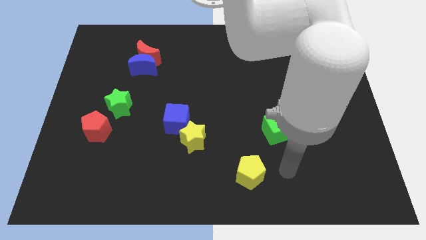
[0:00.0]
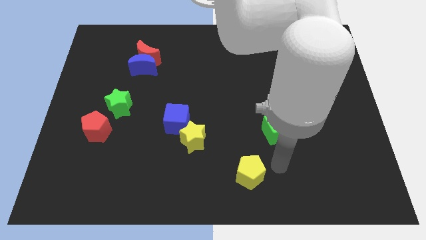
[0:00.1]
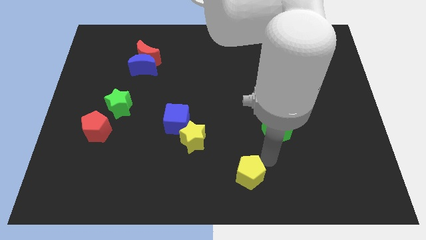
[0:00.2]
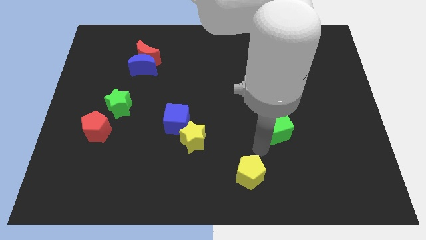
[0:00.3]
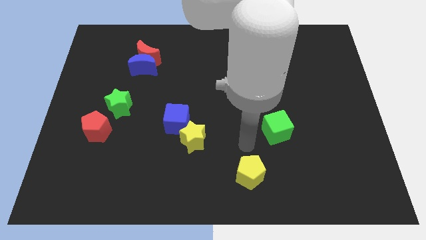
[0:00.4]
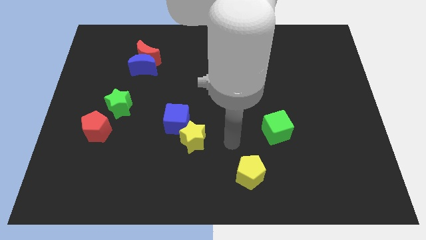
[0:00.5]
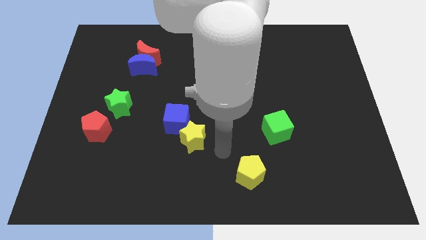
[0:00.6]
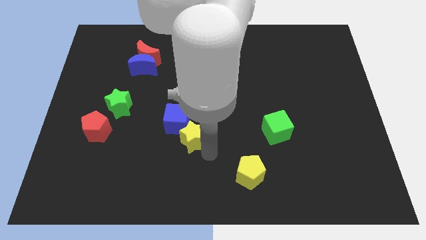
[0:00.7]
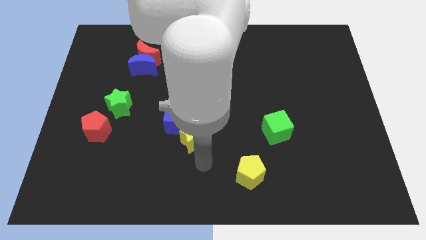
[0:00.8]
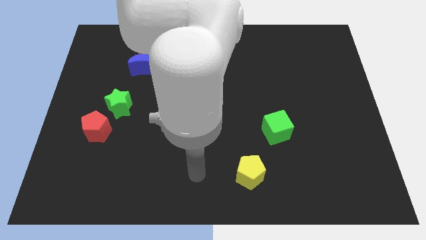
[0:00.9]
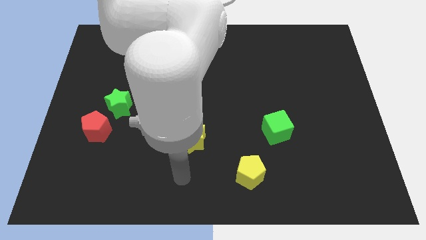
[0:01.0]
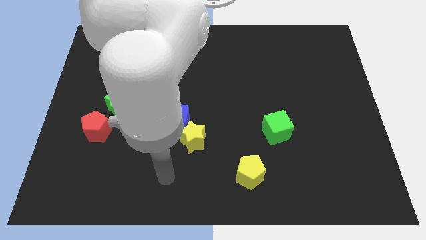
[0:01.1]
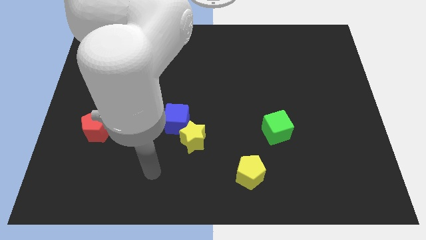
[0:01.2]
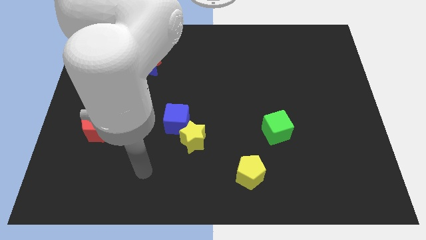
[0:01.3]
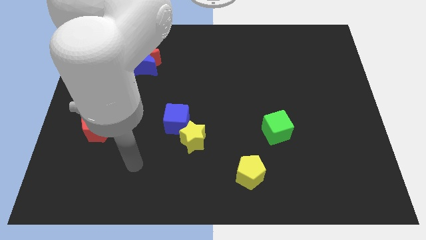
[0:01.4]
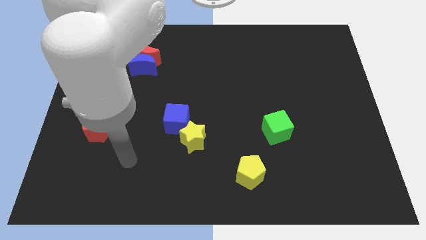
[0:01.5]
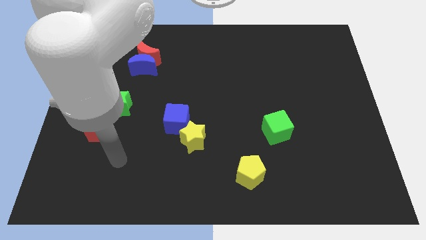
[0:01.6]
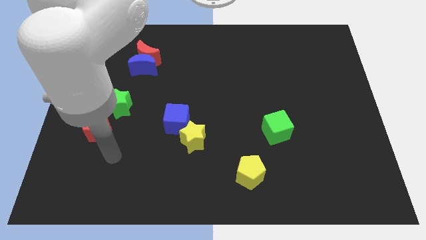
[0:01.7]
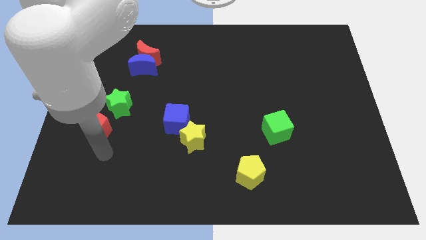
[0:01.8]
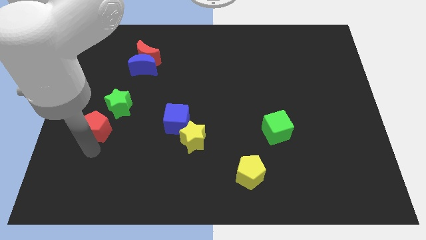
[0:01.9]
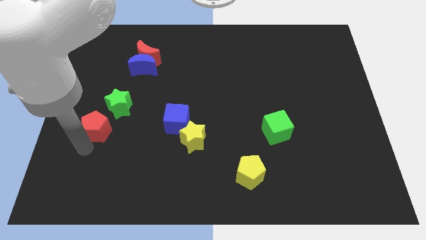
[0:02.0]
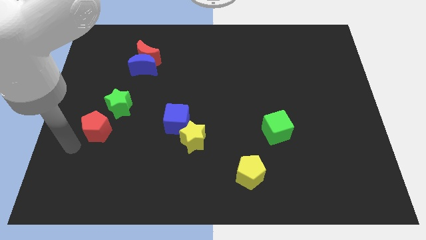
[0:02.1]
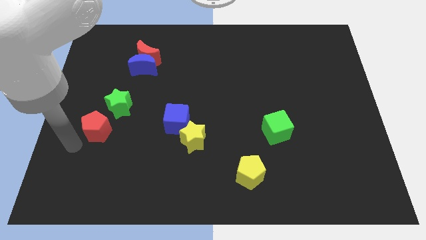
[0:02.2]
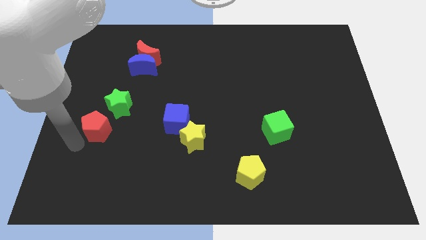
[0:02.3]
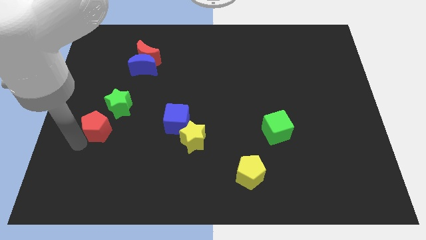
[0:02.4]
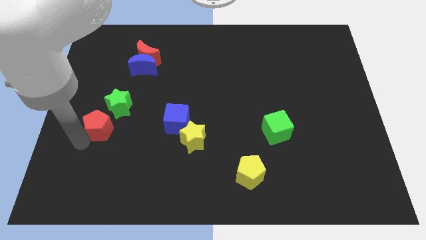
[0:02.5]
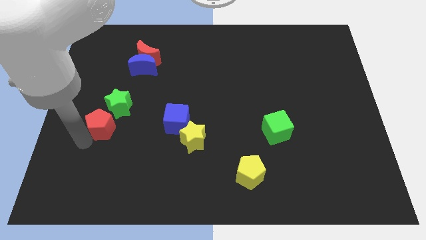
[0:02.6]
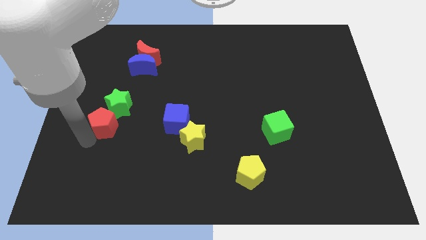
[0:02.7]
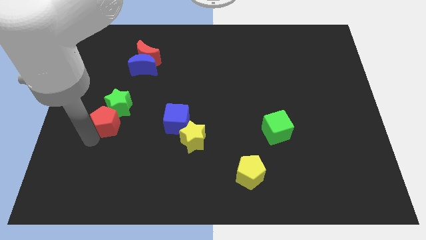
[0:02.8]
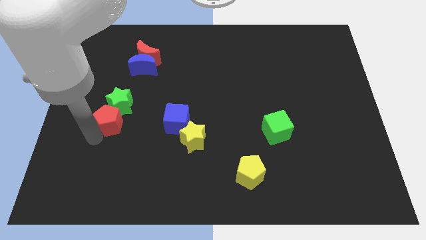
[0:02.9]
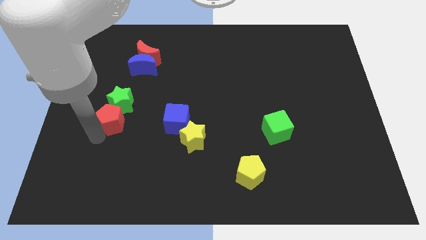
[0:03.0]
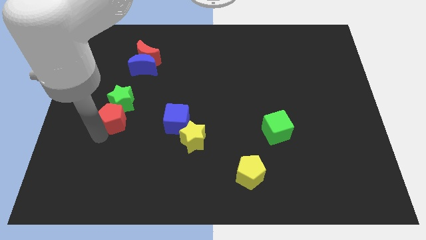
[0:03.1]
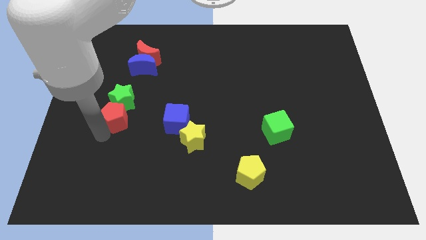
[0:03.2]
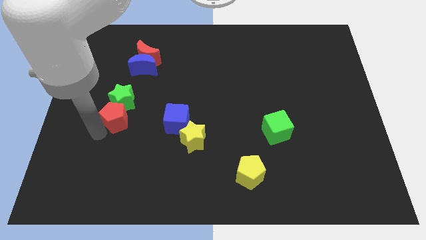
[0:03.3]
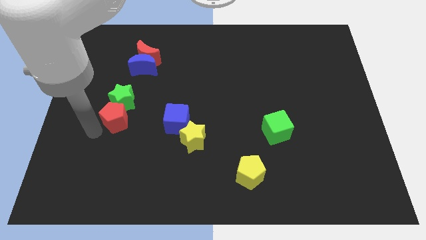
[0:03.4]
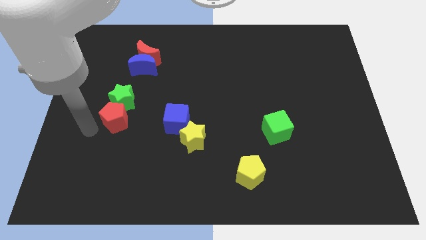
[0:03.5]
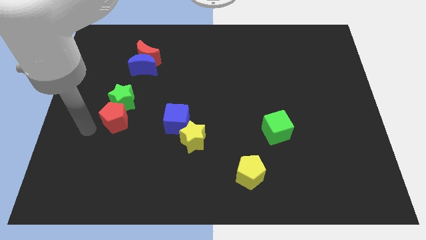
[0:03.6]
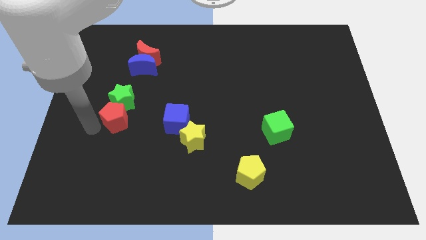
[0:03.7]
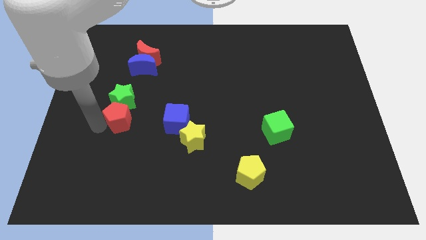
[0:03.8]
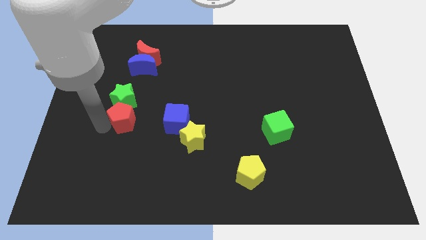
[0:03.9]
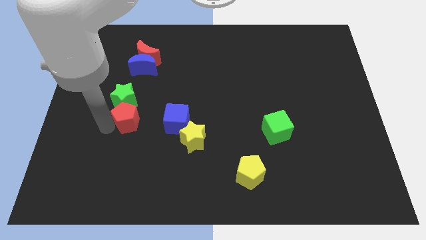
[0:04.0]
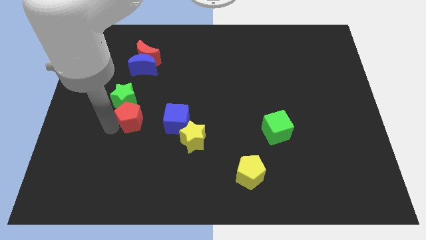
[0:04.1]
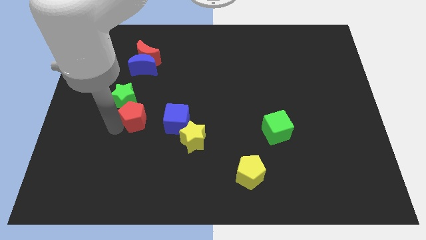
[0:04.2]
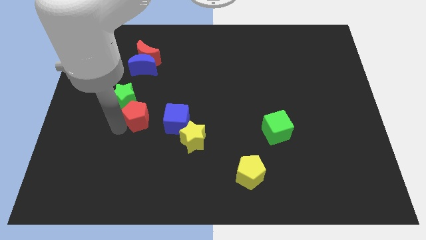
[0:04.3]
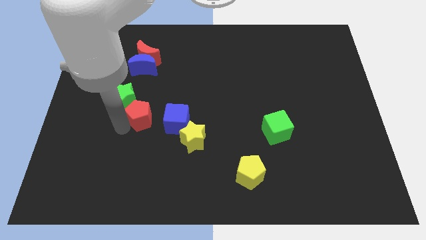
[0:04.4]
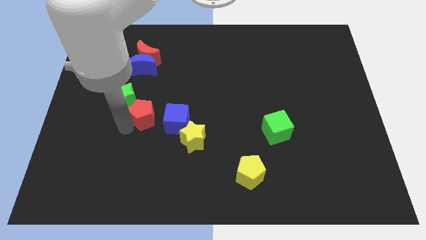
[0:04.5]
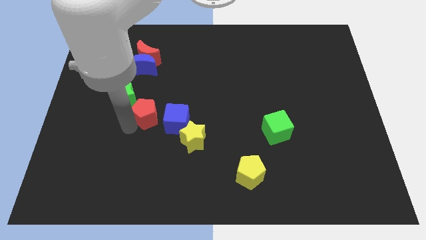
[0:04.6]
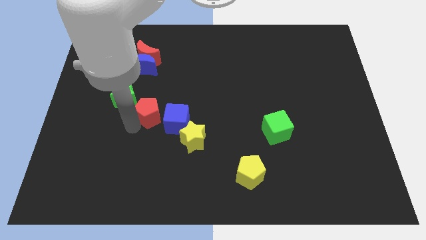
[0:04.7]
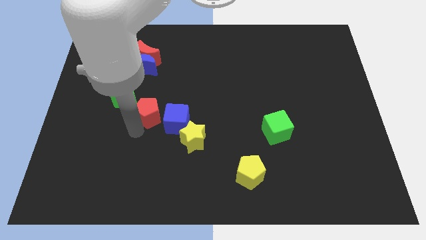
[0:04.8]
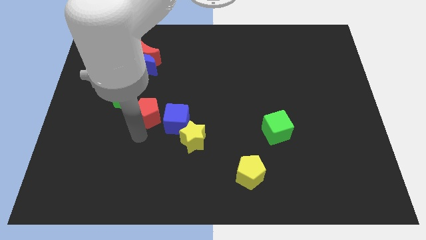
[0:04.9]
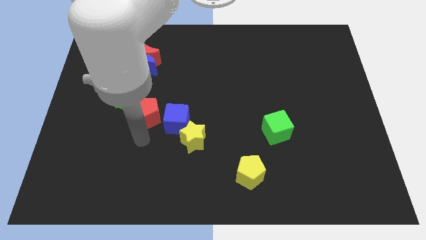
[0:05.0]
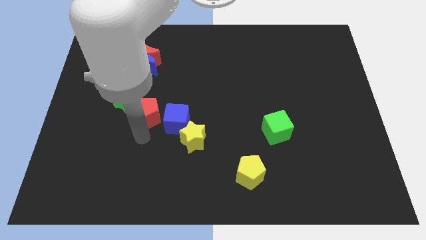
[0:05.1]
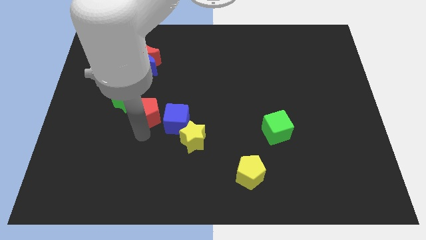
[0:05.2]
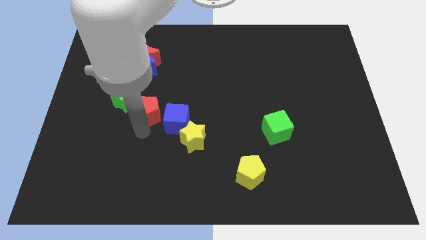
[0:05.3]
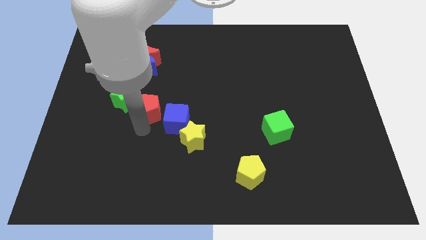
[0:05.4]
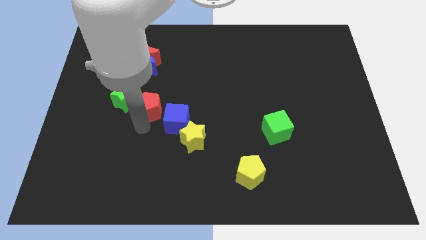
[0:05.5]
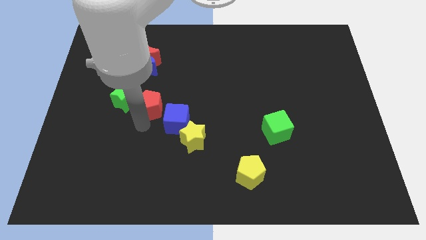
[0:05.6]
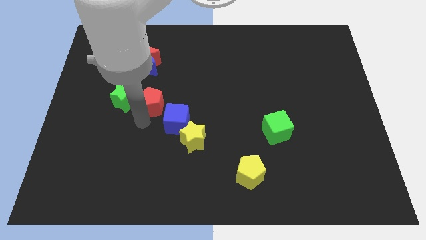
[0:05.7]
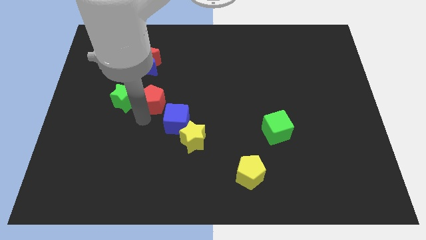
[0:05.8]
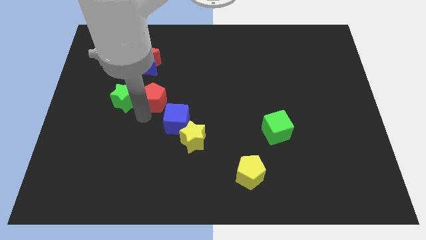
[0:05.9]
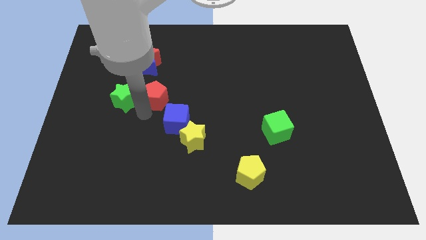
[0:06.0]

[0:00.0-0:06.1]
move the red pentagon diagonally down and to the right of the blue moon

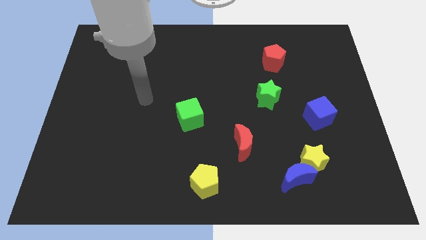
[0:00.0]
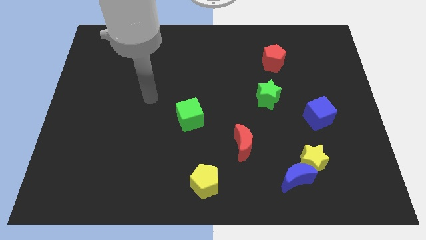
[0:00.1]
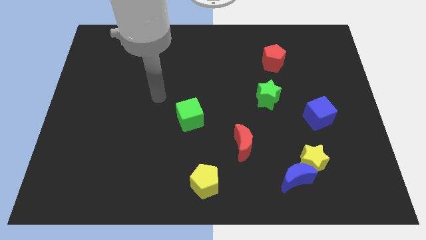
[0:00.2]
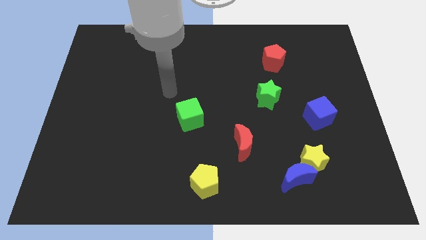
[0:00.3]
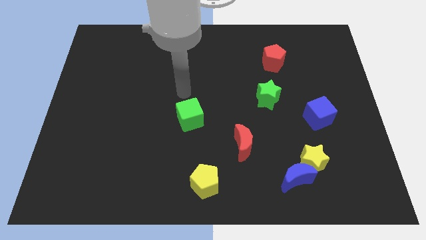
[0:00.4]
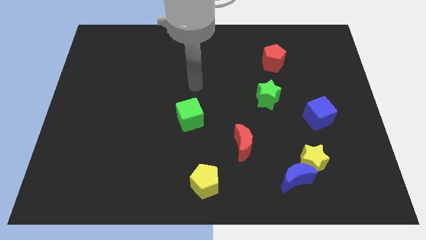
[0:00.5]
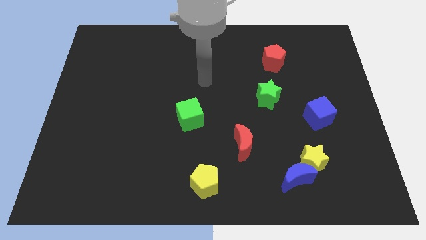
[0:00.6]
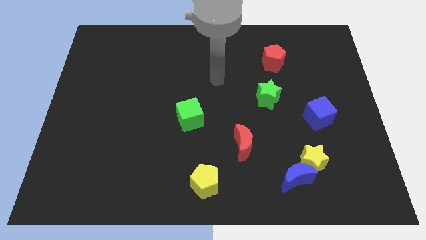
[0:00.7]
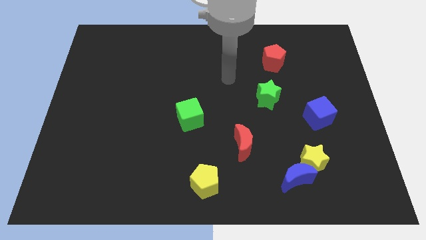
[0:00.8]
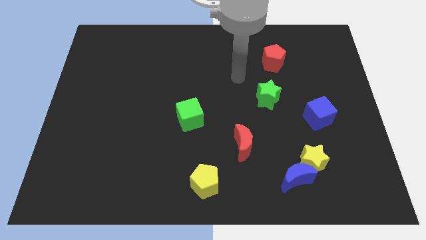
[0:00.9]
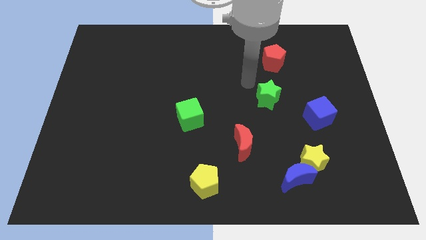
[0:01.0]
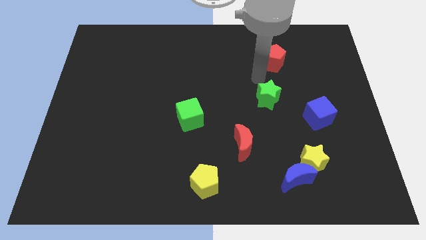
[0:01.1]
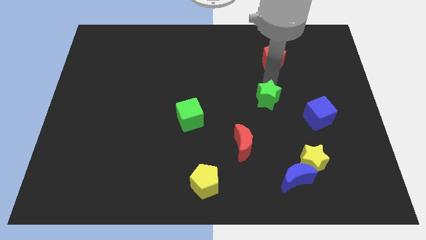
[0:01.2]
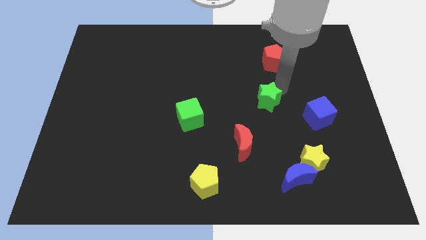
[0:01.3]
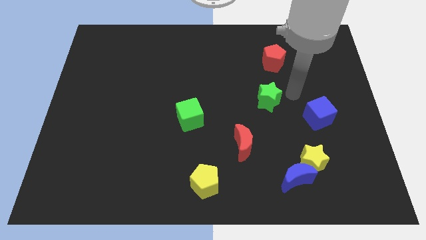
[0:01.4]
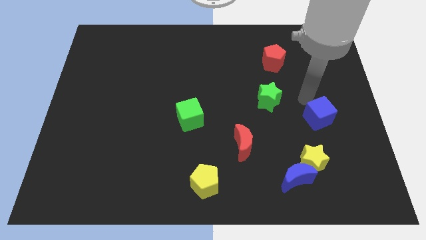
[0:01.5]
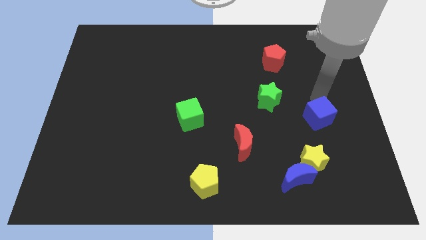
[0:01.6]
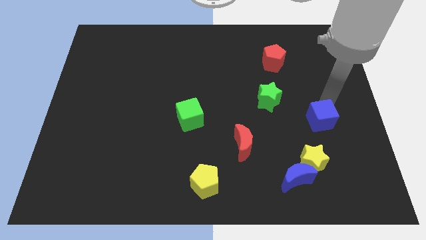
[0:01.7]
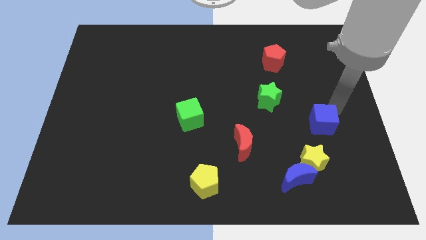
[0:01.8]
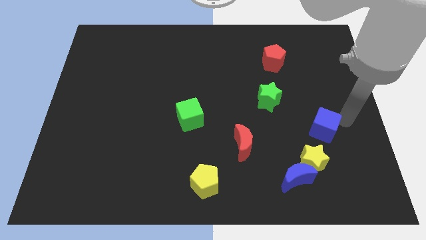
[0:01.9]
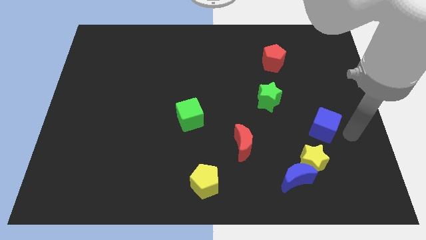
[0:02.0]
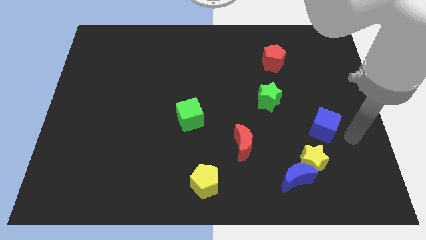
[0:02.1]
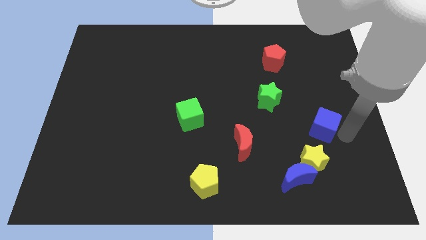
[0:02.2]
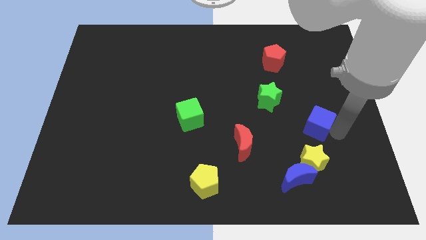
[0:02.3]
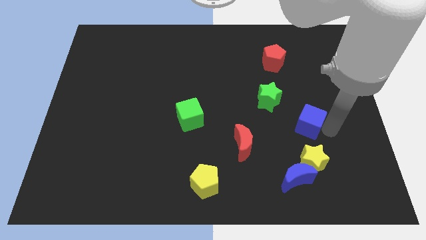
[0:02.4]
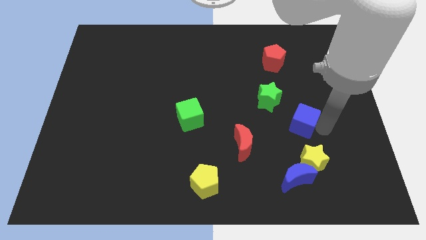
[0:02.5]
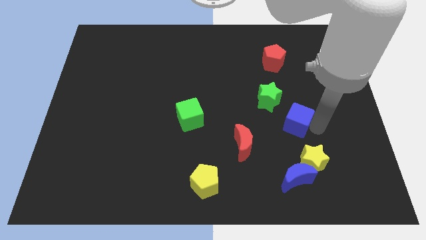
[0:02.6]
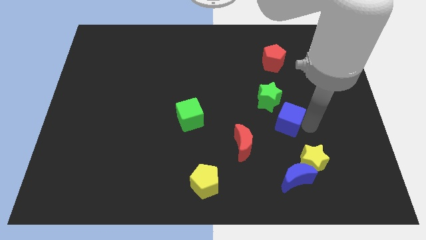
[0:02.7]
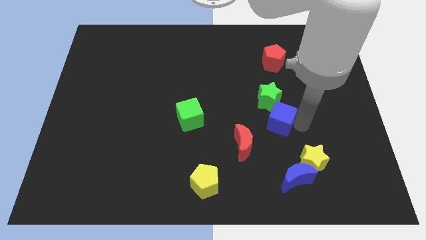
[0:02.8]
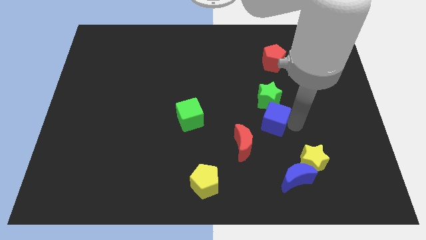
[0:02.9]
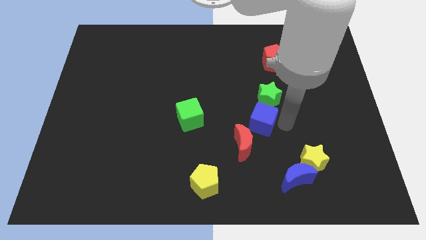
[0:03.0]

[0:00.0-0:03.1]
slide the blue cube to the top side of the red moon
